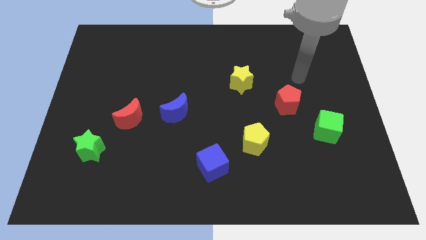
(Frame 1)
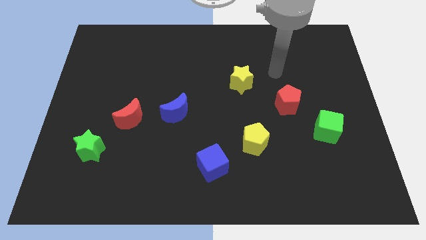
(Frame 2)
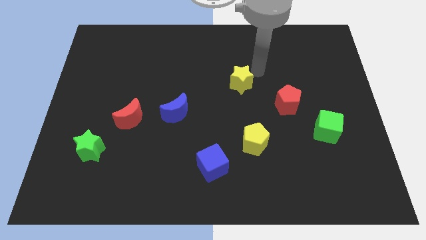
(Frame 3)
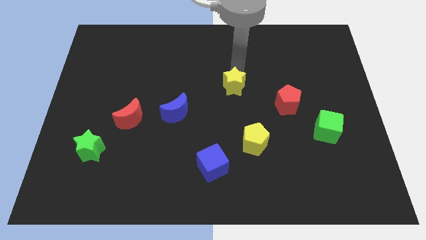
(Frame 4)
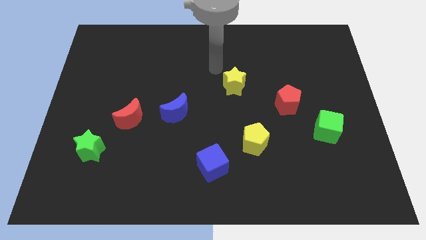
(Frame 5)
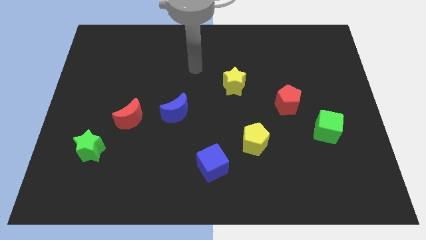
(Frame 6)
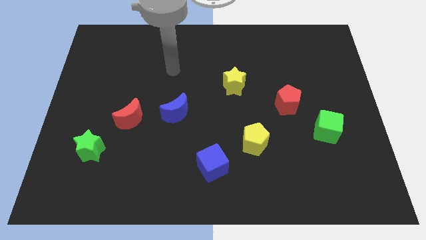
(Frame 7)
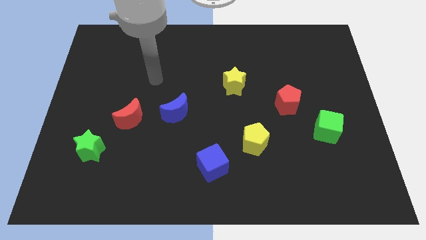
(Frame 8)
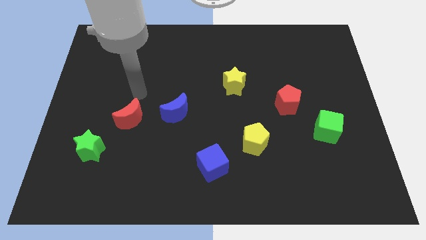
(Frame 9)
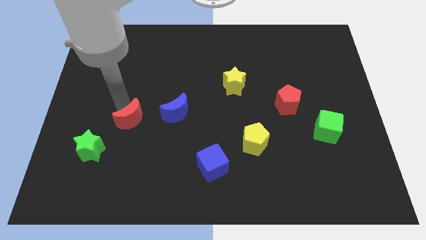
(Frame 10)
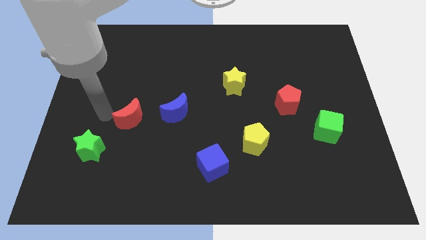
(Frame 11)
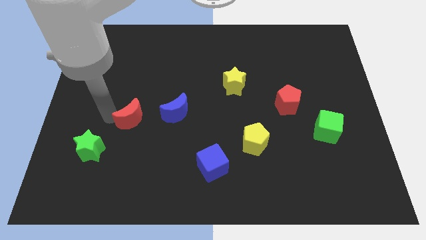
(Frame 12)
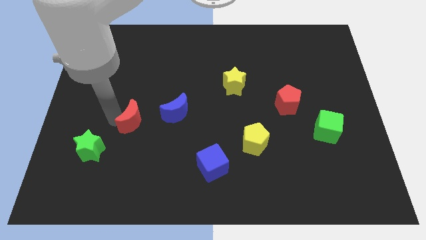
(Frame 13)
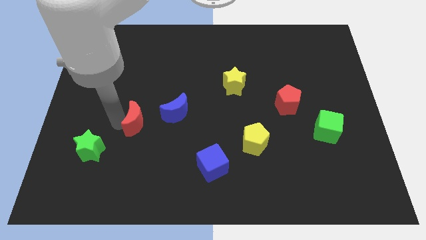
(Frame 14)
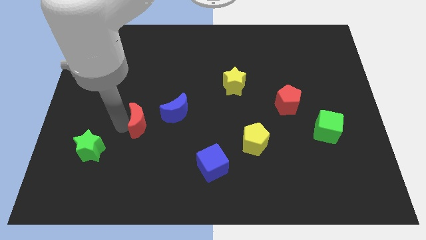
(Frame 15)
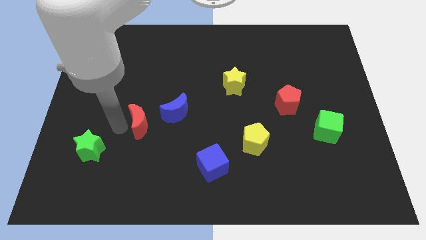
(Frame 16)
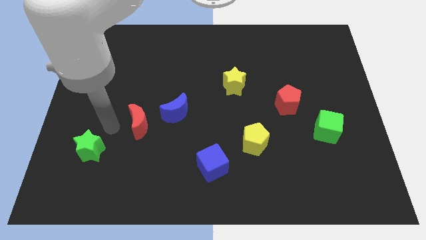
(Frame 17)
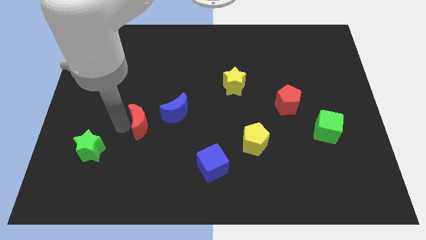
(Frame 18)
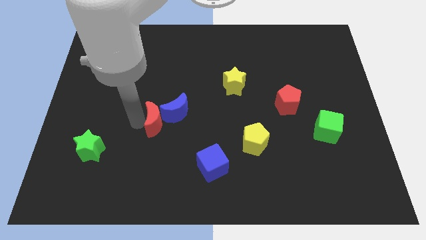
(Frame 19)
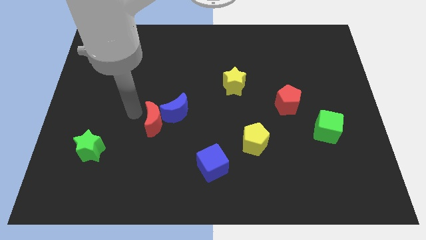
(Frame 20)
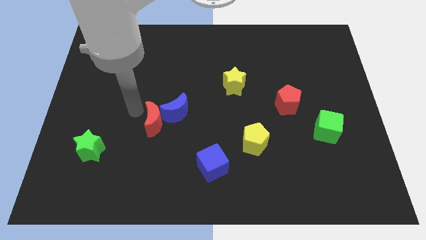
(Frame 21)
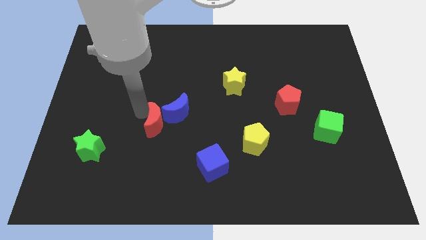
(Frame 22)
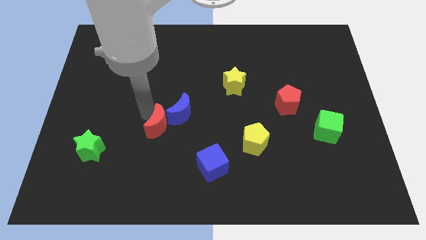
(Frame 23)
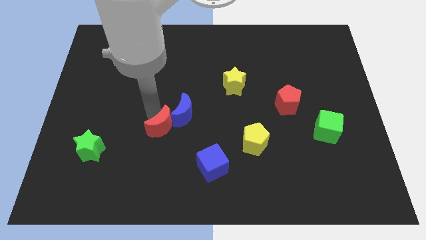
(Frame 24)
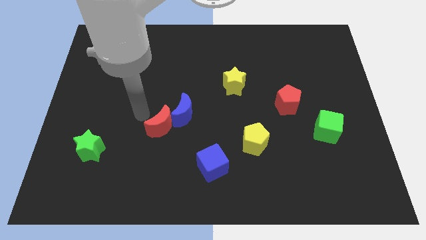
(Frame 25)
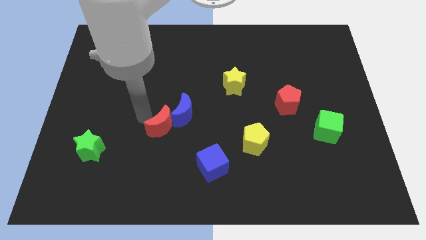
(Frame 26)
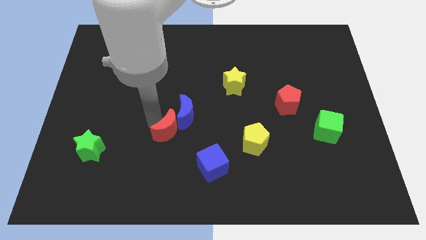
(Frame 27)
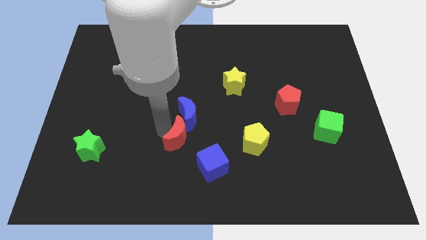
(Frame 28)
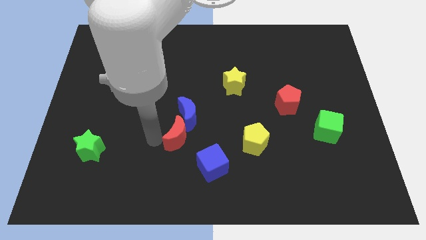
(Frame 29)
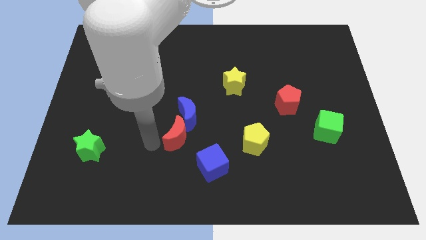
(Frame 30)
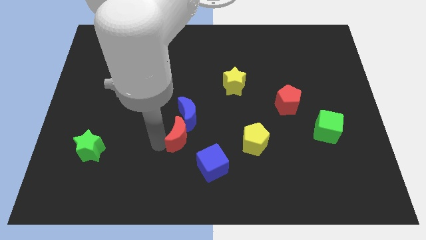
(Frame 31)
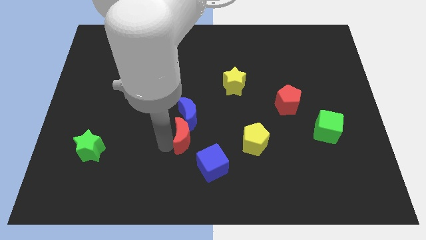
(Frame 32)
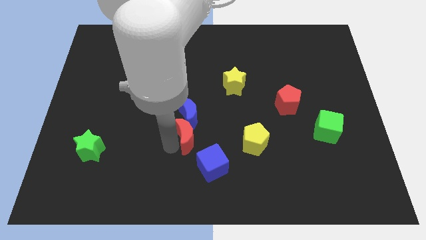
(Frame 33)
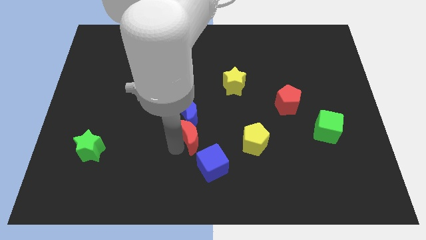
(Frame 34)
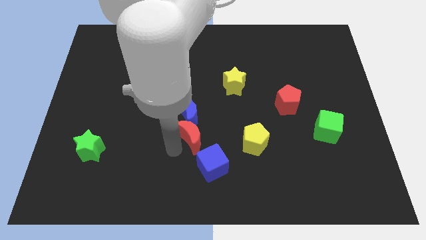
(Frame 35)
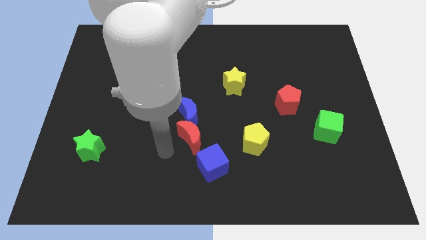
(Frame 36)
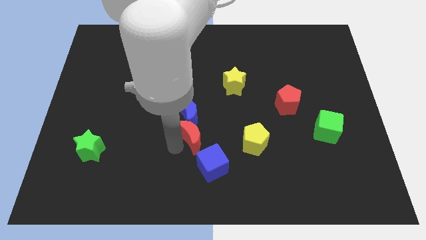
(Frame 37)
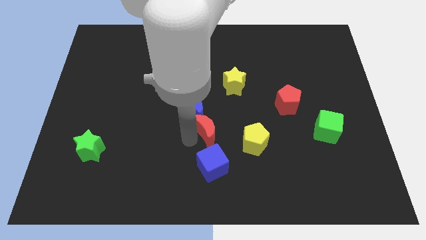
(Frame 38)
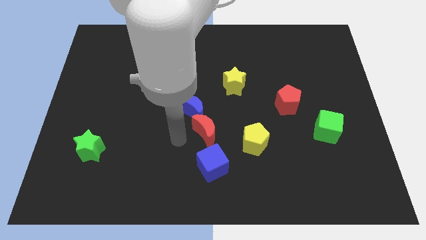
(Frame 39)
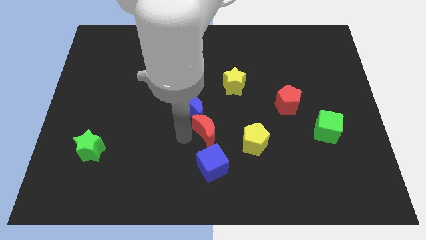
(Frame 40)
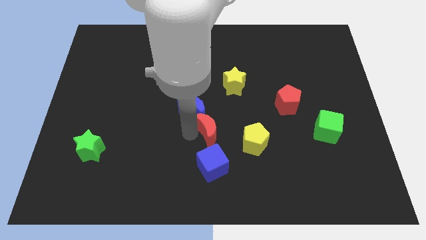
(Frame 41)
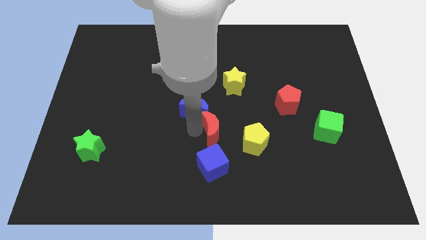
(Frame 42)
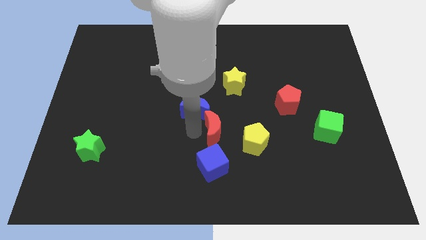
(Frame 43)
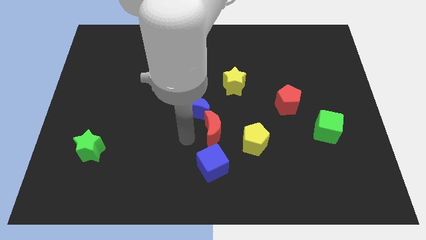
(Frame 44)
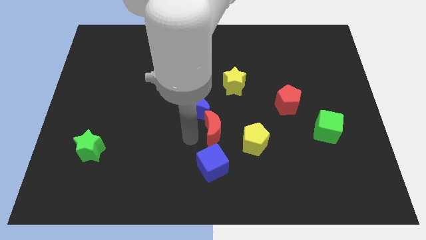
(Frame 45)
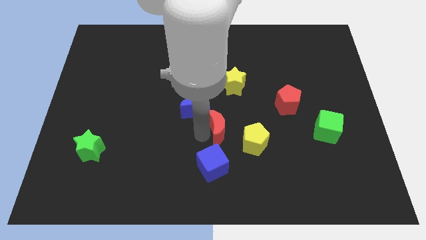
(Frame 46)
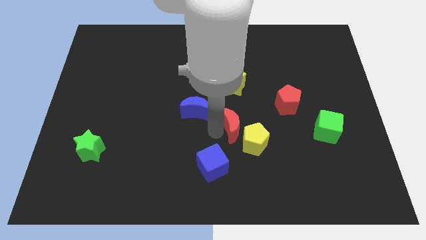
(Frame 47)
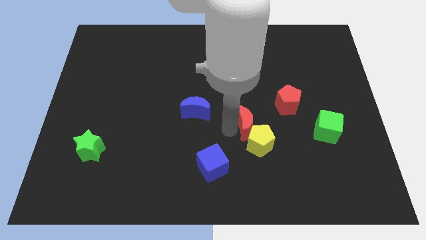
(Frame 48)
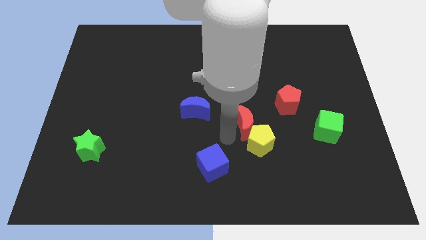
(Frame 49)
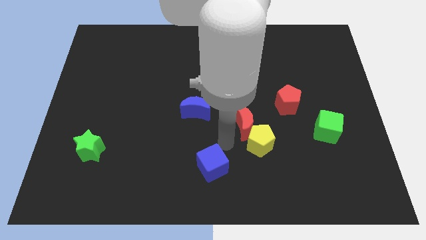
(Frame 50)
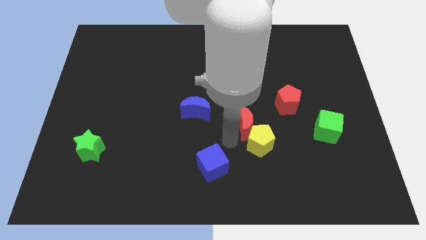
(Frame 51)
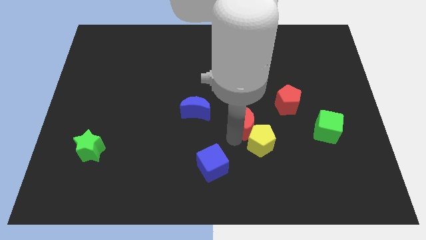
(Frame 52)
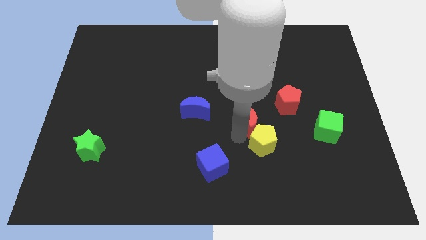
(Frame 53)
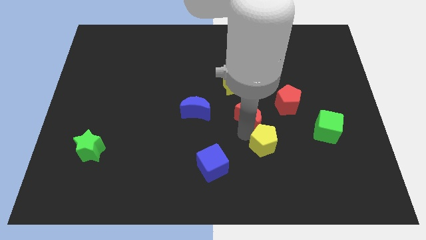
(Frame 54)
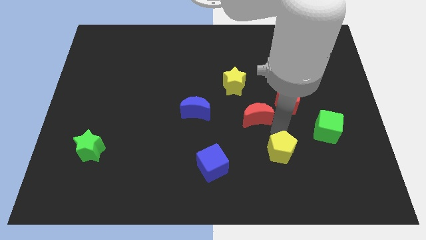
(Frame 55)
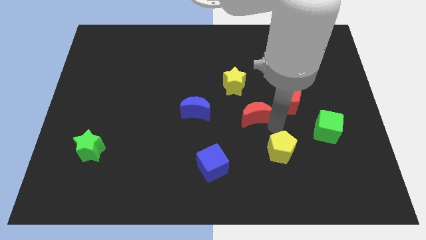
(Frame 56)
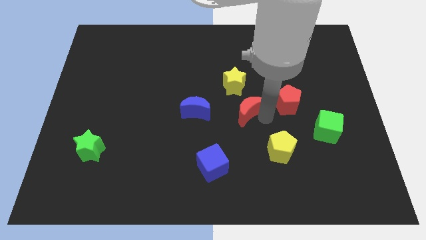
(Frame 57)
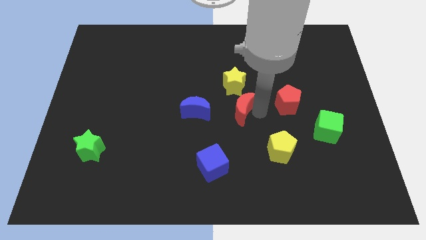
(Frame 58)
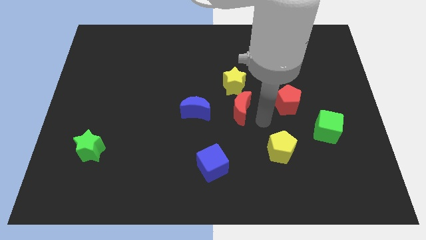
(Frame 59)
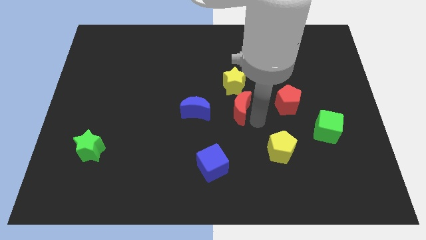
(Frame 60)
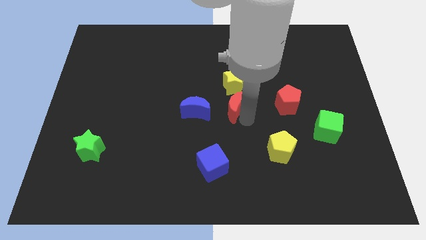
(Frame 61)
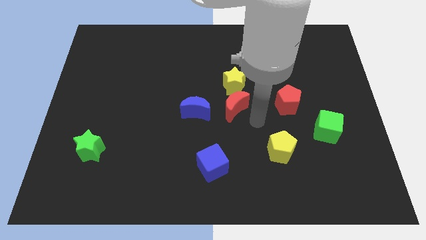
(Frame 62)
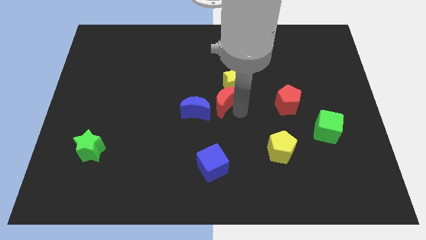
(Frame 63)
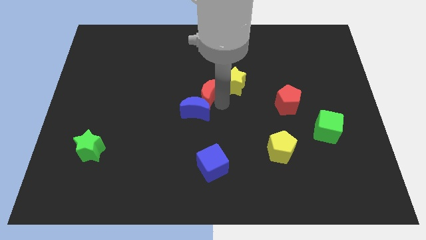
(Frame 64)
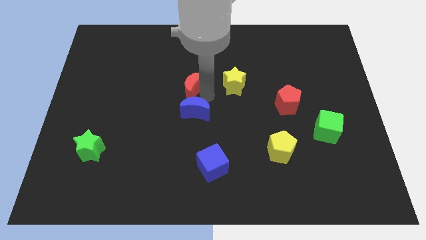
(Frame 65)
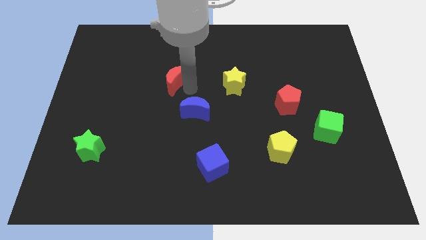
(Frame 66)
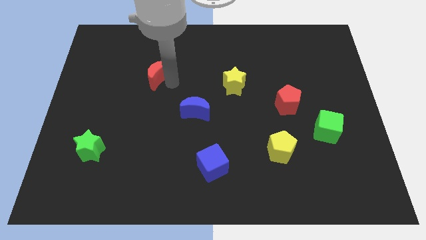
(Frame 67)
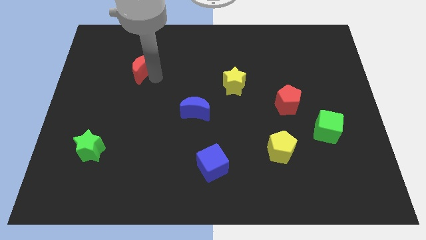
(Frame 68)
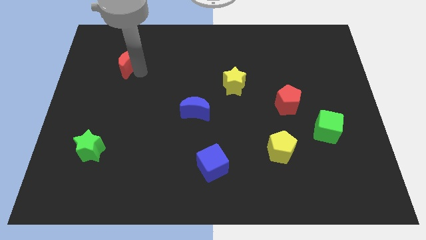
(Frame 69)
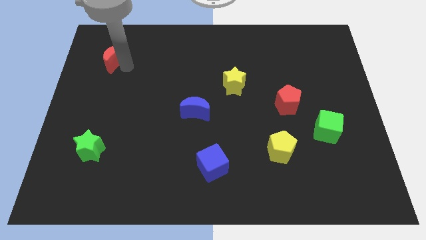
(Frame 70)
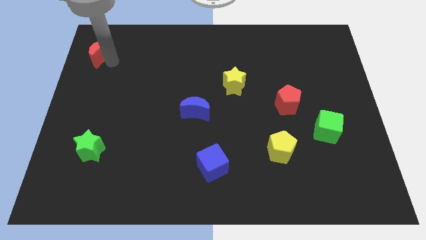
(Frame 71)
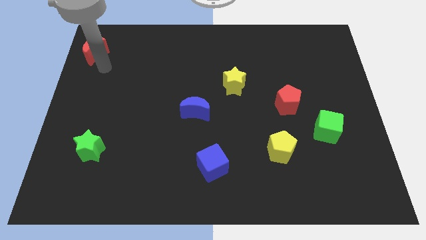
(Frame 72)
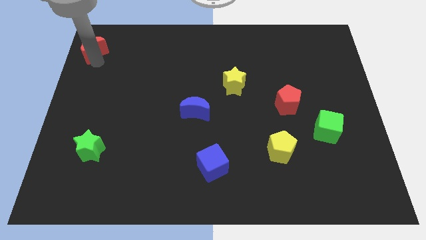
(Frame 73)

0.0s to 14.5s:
put the red moon to the top left of the board
